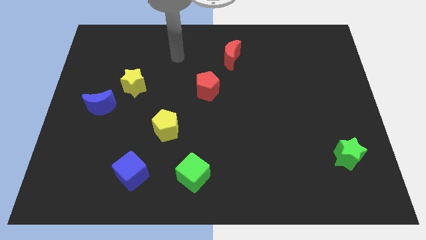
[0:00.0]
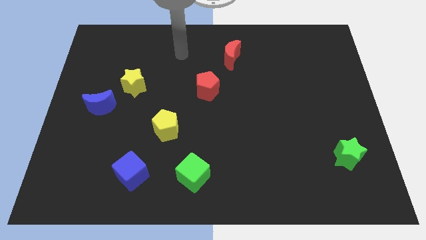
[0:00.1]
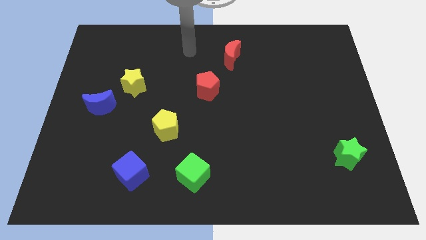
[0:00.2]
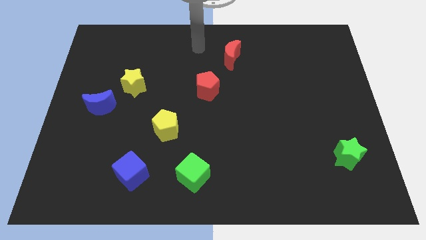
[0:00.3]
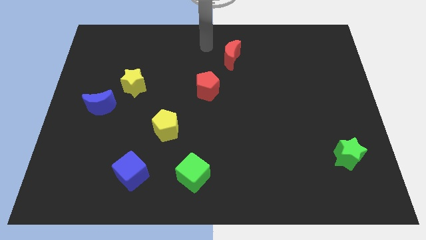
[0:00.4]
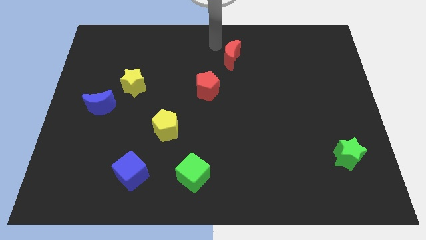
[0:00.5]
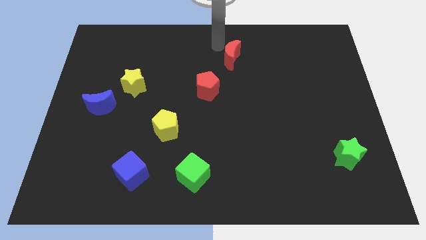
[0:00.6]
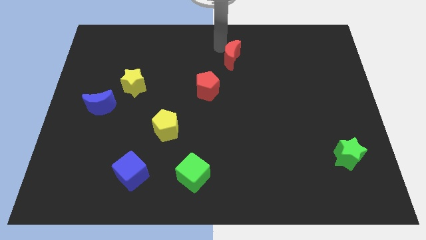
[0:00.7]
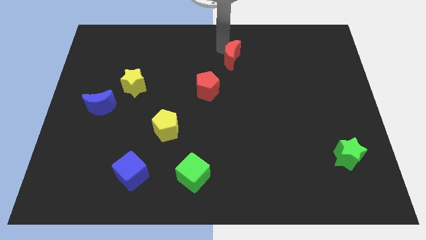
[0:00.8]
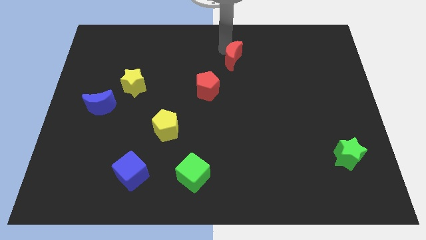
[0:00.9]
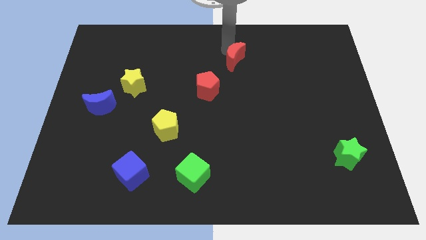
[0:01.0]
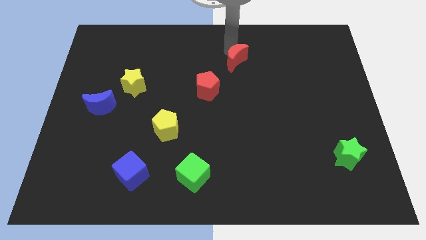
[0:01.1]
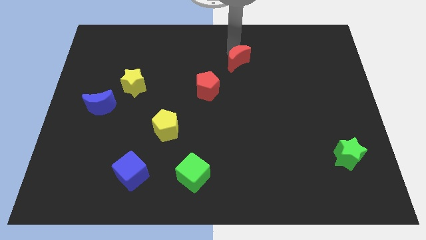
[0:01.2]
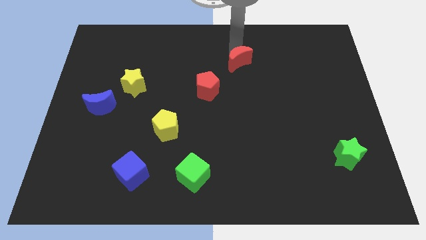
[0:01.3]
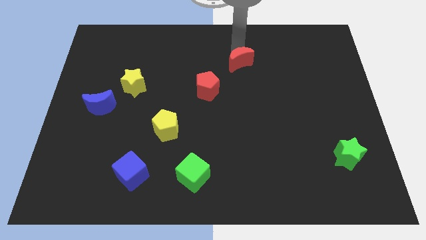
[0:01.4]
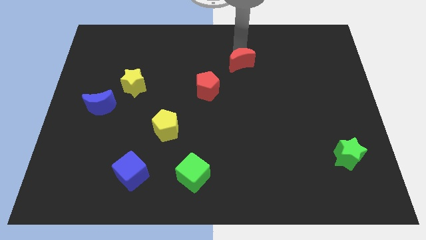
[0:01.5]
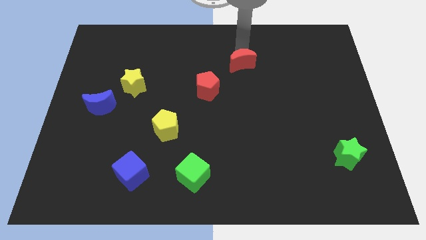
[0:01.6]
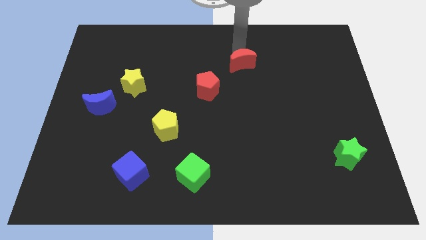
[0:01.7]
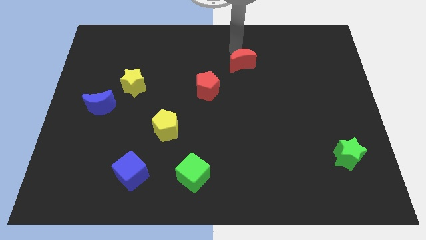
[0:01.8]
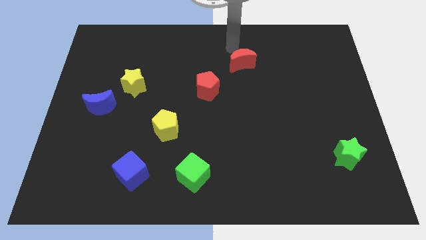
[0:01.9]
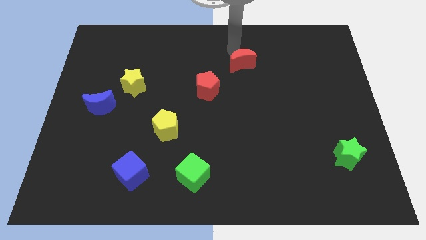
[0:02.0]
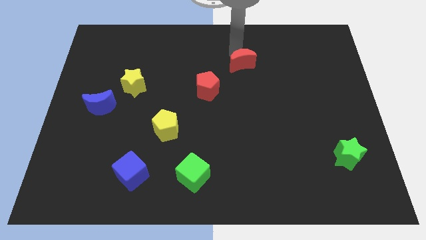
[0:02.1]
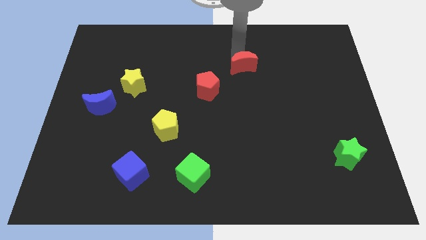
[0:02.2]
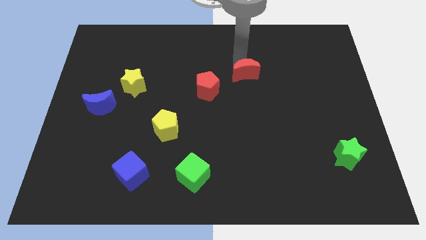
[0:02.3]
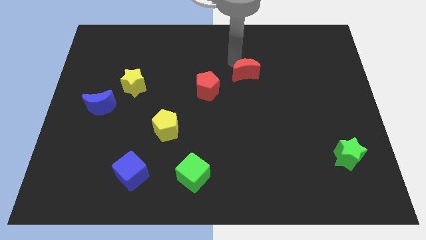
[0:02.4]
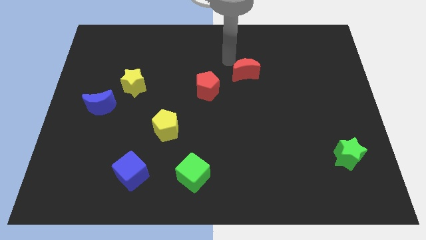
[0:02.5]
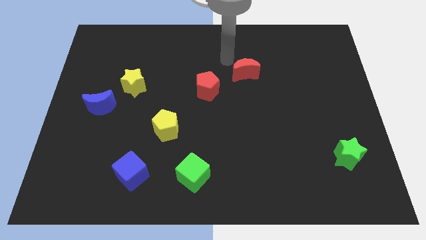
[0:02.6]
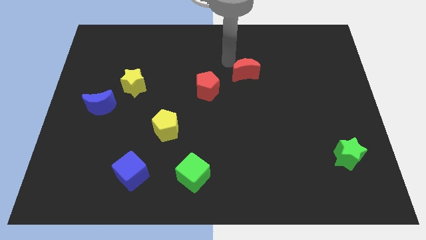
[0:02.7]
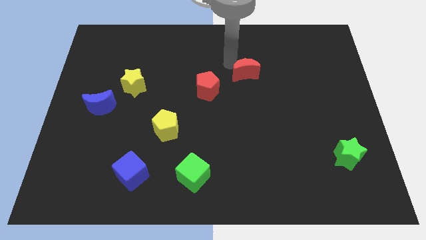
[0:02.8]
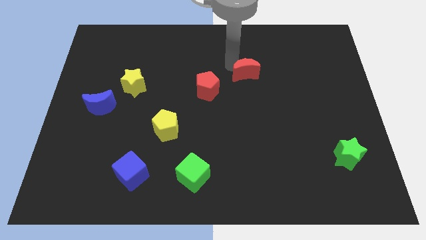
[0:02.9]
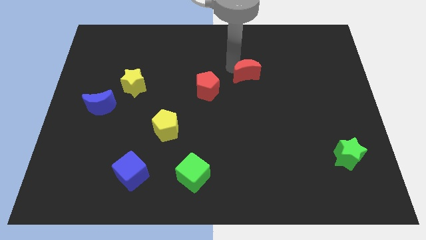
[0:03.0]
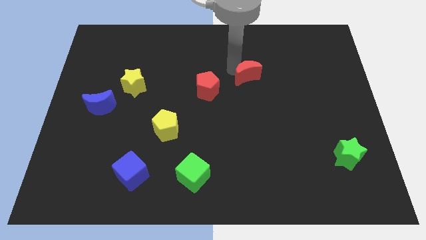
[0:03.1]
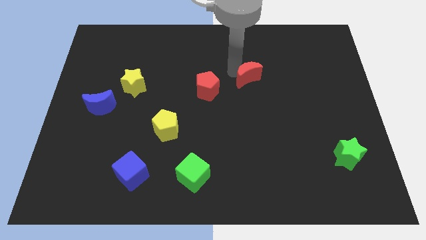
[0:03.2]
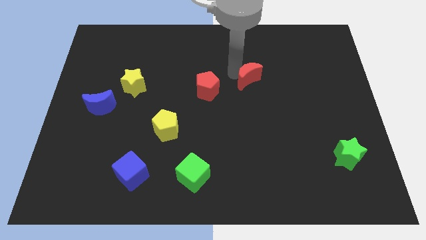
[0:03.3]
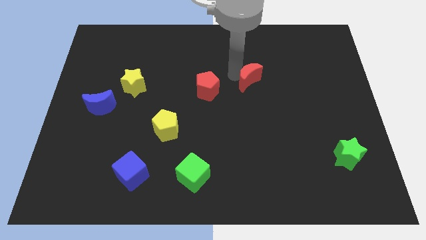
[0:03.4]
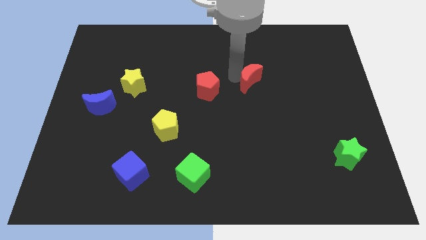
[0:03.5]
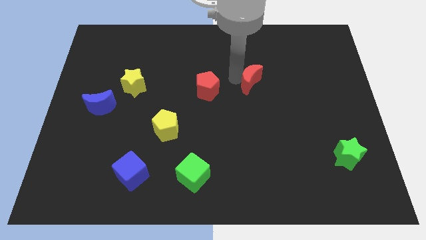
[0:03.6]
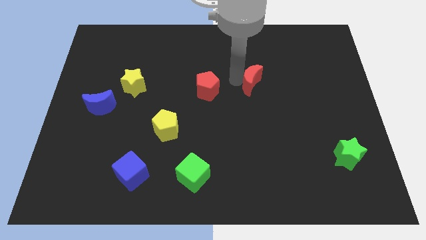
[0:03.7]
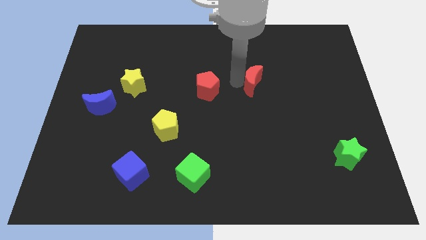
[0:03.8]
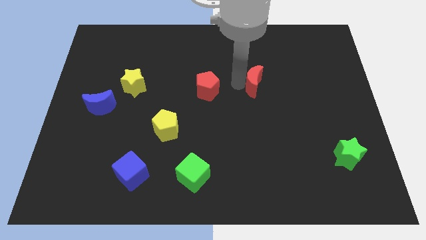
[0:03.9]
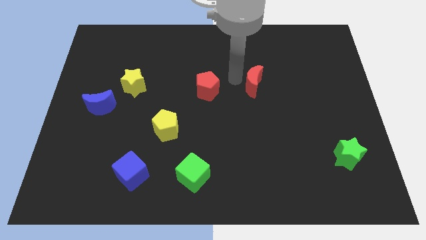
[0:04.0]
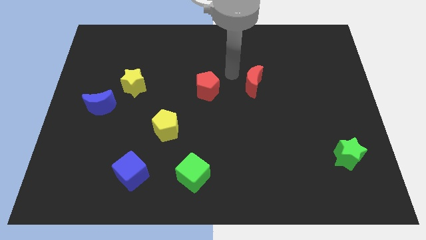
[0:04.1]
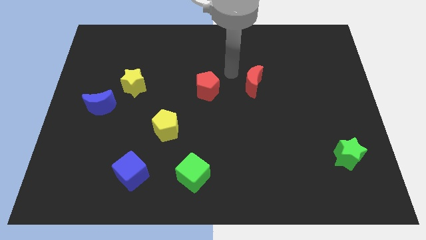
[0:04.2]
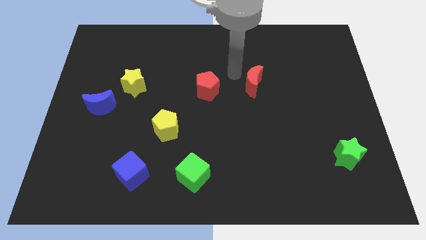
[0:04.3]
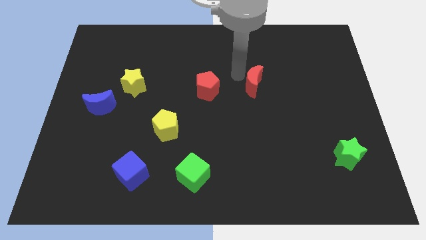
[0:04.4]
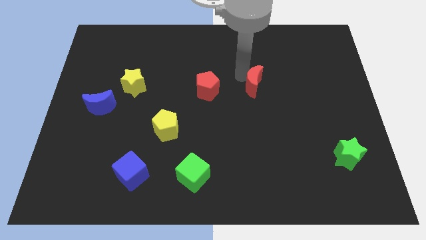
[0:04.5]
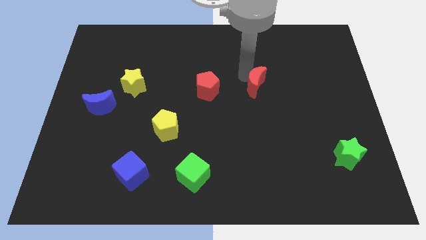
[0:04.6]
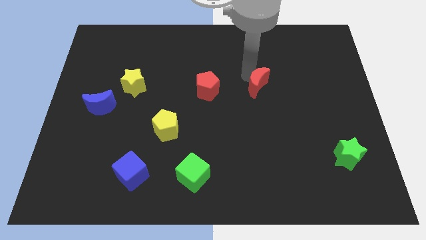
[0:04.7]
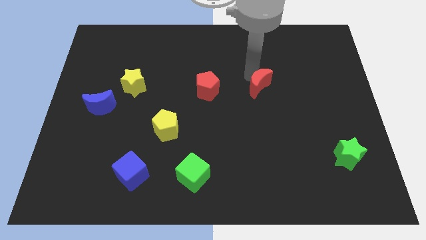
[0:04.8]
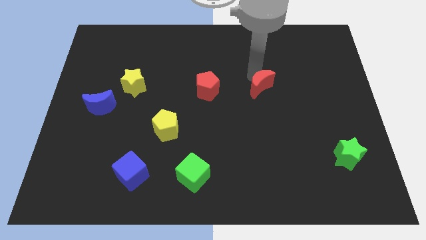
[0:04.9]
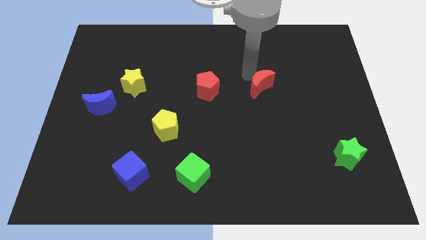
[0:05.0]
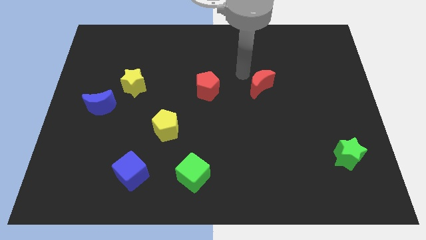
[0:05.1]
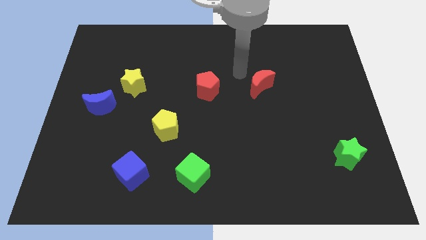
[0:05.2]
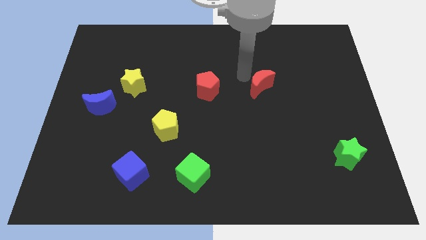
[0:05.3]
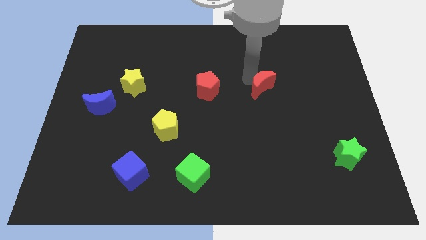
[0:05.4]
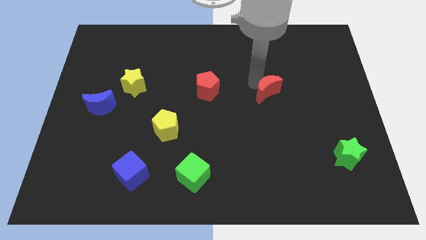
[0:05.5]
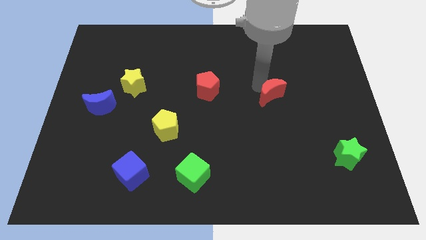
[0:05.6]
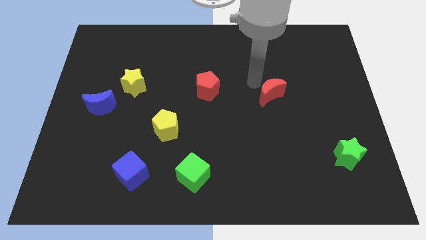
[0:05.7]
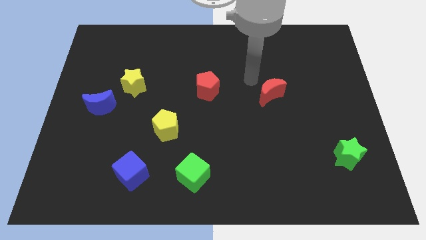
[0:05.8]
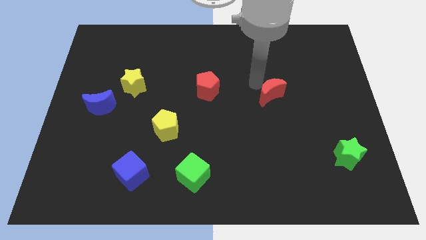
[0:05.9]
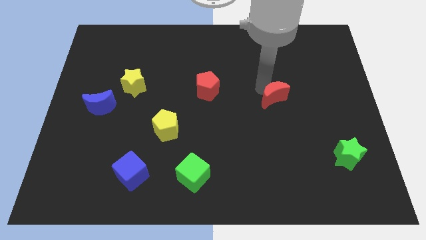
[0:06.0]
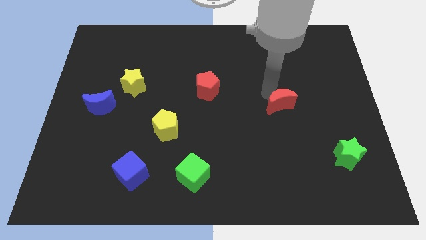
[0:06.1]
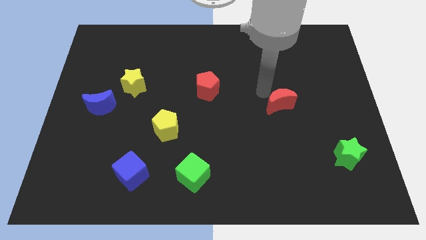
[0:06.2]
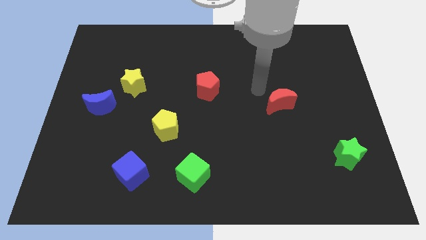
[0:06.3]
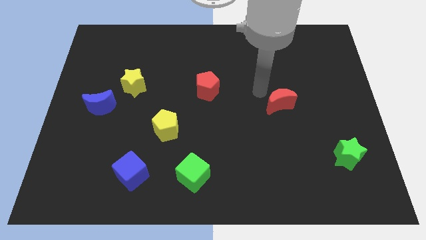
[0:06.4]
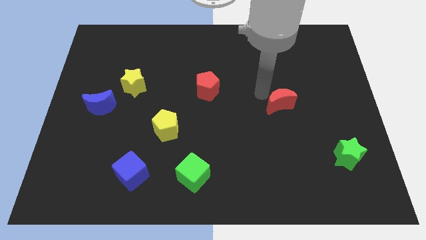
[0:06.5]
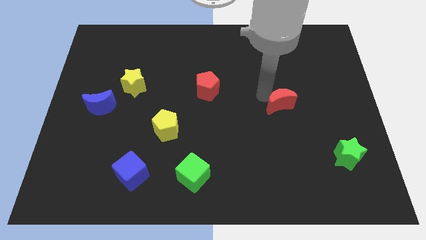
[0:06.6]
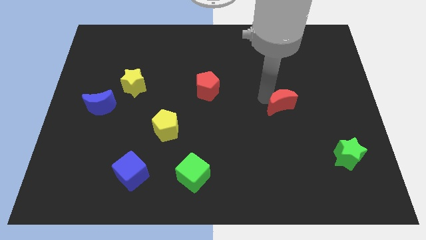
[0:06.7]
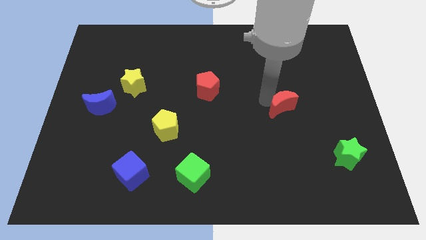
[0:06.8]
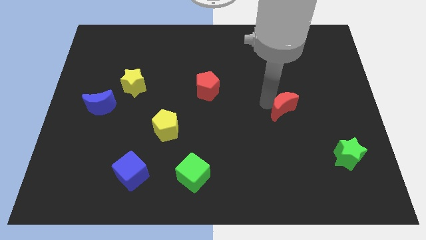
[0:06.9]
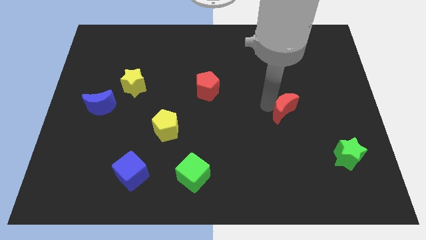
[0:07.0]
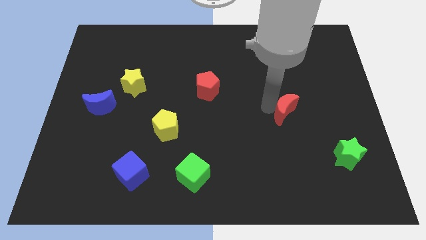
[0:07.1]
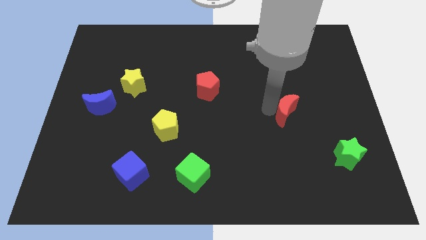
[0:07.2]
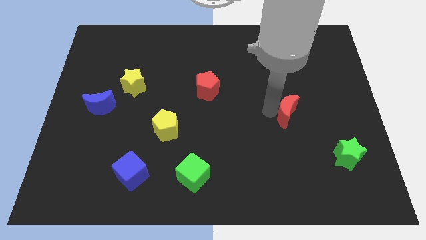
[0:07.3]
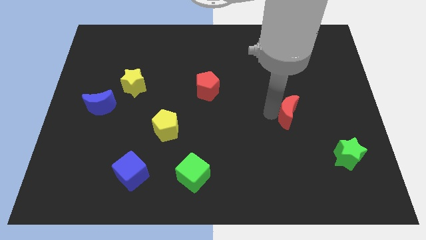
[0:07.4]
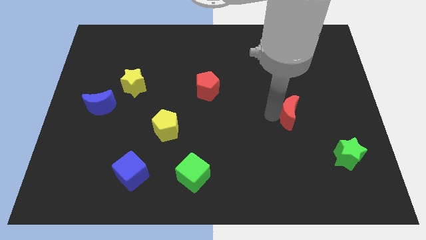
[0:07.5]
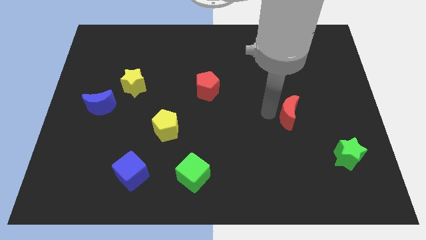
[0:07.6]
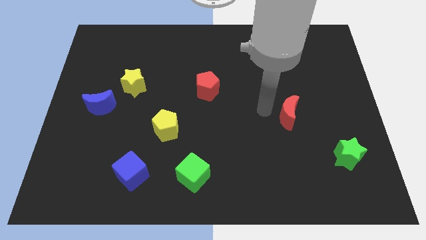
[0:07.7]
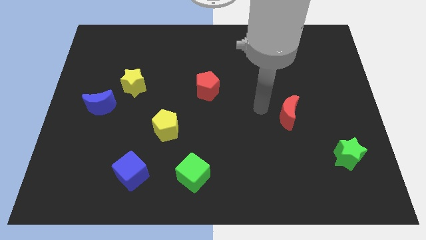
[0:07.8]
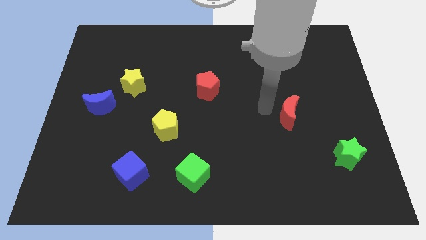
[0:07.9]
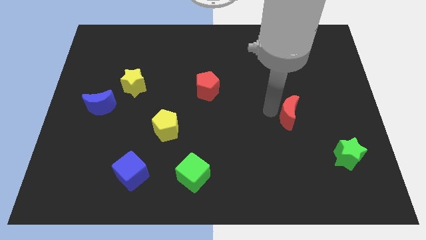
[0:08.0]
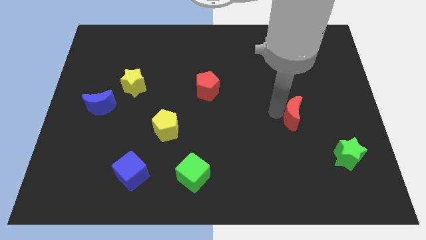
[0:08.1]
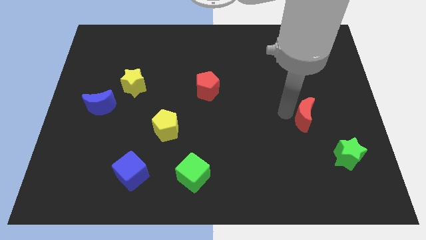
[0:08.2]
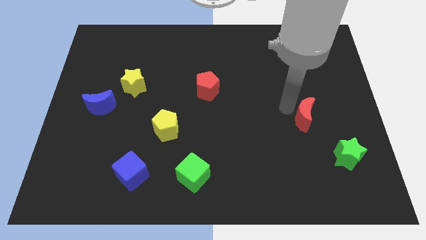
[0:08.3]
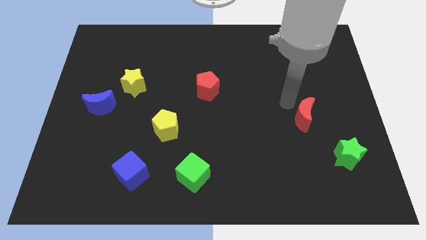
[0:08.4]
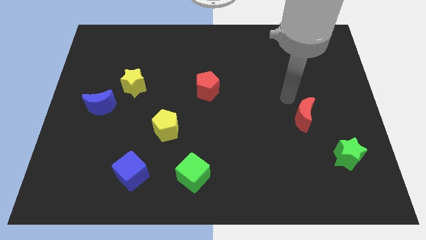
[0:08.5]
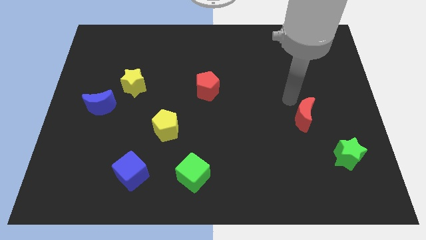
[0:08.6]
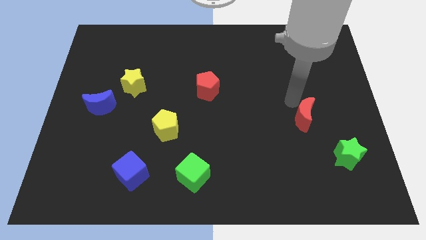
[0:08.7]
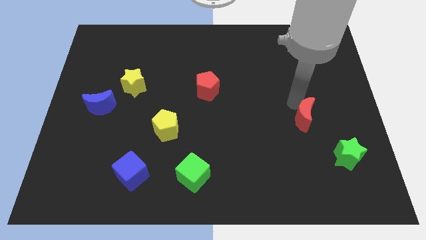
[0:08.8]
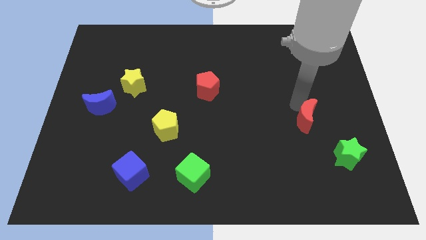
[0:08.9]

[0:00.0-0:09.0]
push the red moon to the top left of the green star
